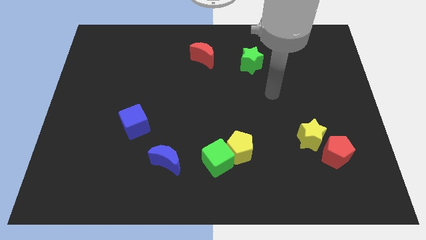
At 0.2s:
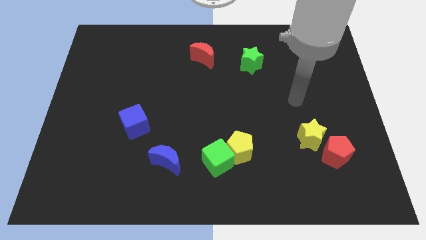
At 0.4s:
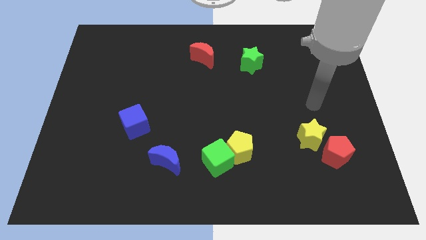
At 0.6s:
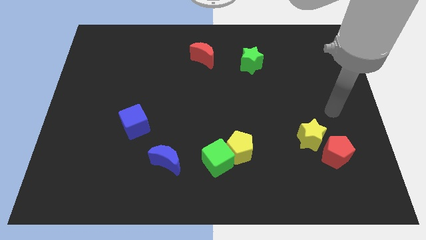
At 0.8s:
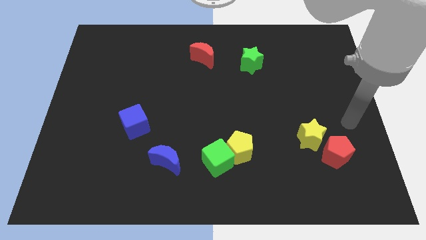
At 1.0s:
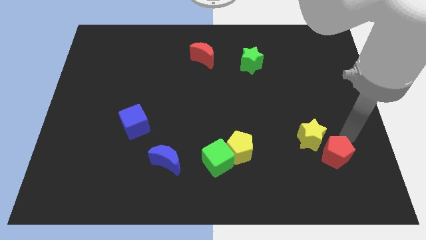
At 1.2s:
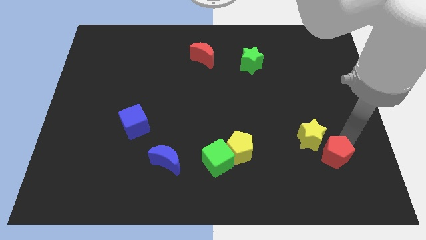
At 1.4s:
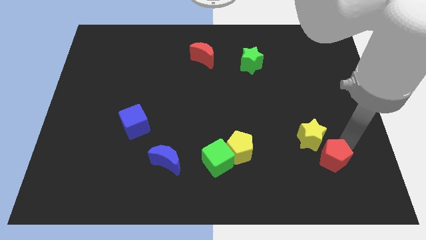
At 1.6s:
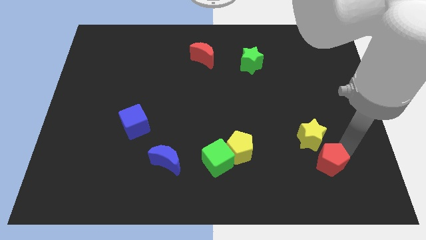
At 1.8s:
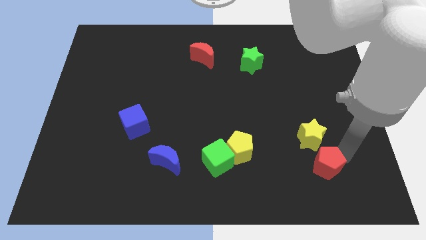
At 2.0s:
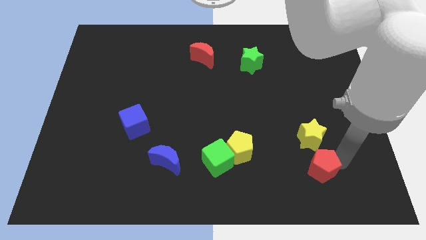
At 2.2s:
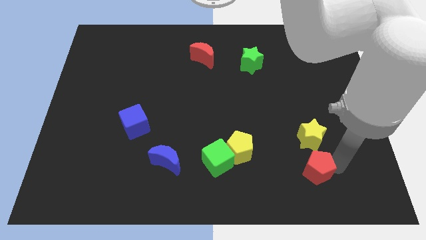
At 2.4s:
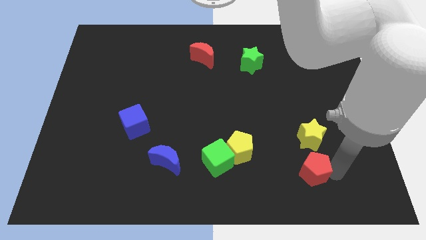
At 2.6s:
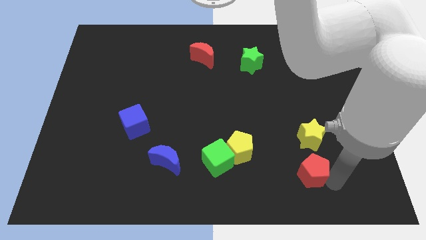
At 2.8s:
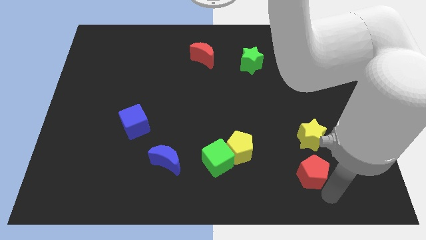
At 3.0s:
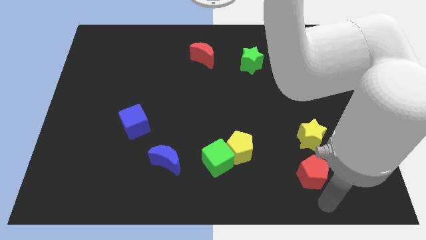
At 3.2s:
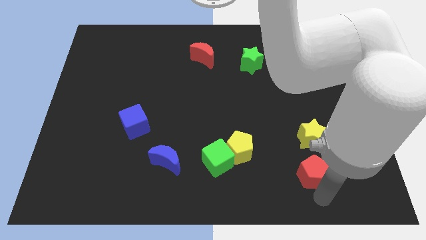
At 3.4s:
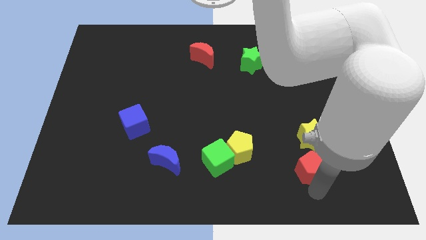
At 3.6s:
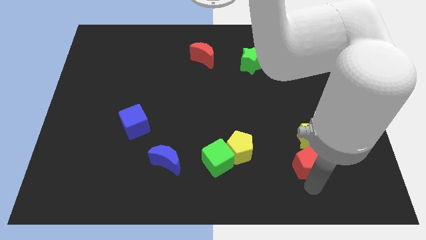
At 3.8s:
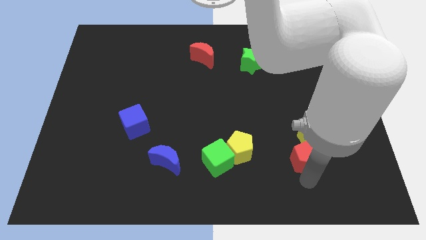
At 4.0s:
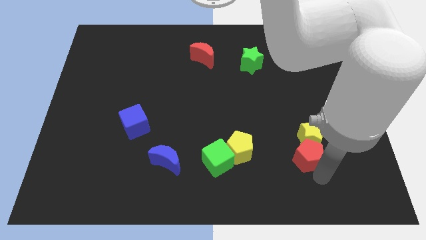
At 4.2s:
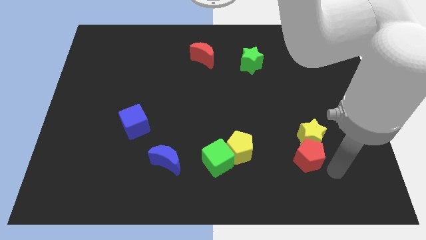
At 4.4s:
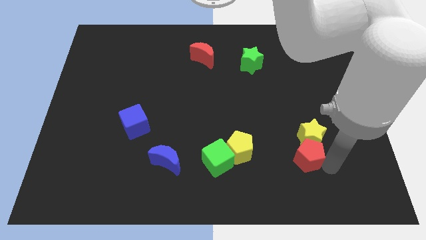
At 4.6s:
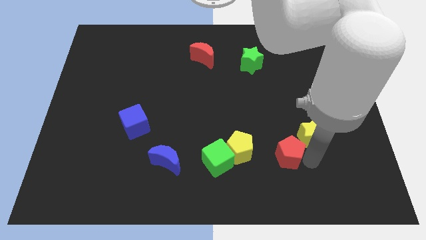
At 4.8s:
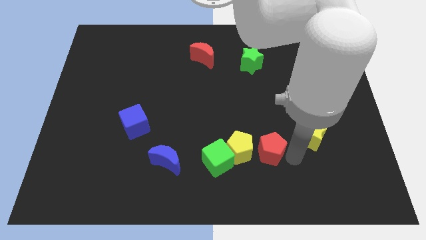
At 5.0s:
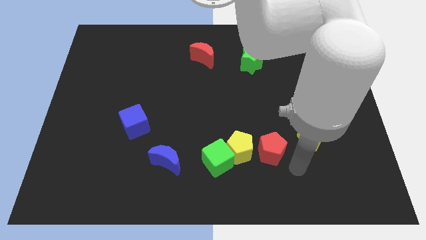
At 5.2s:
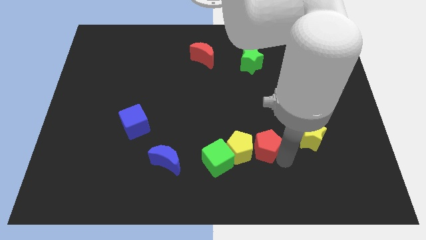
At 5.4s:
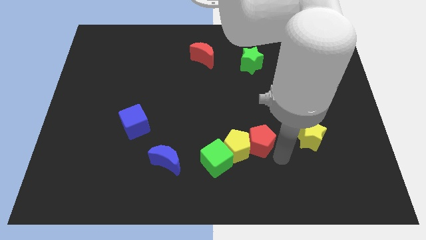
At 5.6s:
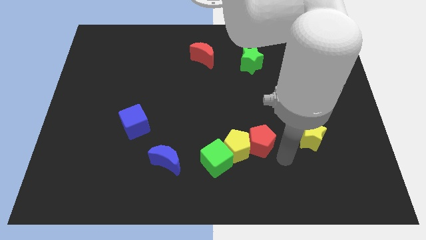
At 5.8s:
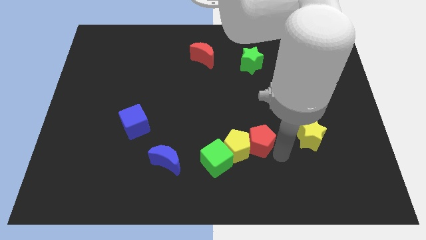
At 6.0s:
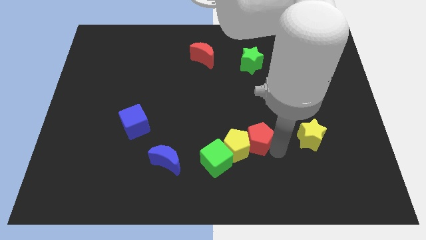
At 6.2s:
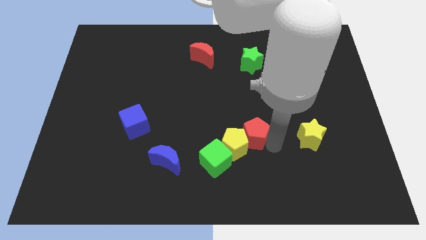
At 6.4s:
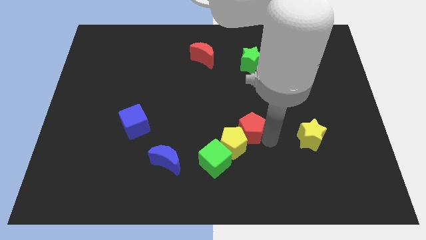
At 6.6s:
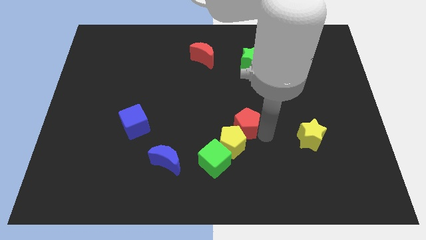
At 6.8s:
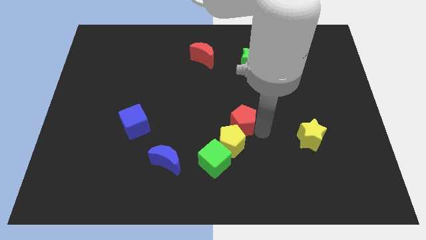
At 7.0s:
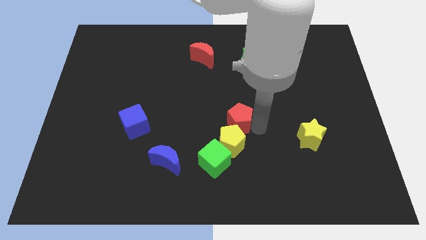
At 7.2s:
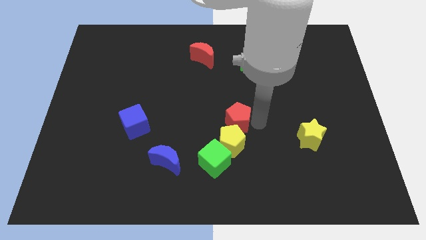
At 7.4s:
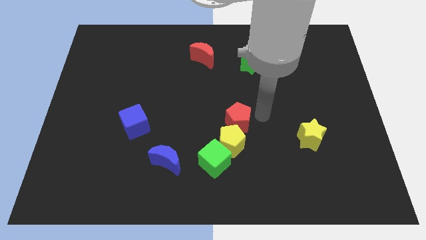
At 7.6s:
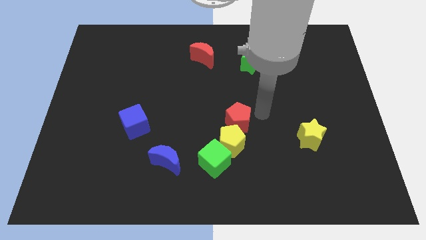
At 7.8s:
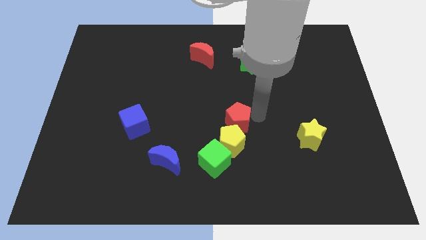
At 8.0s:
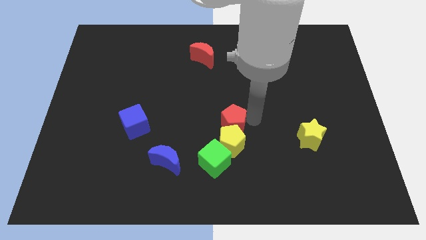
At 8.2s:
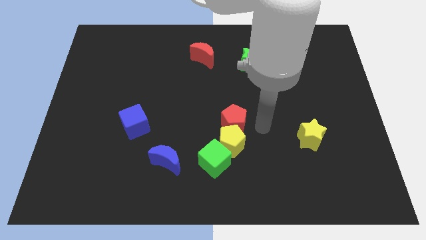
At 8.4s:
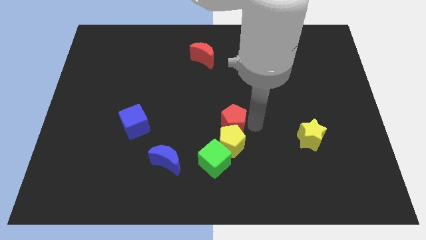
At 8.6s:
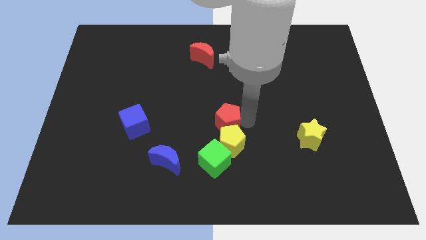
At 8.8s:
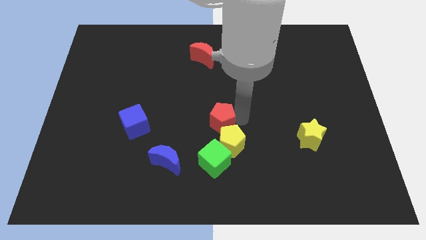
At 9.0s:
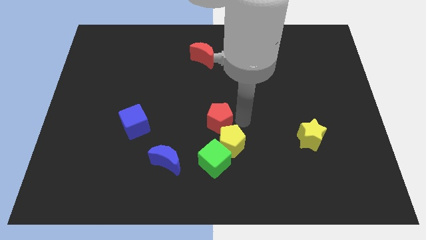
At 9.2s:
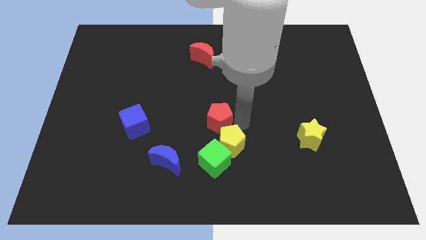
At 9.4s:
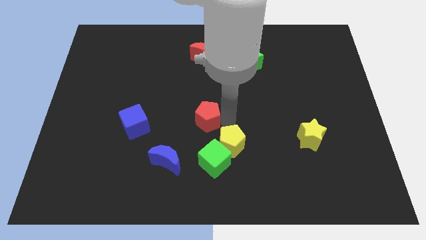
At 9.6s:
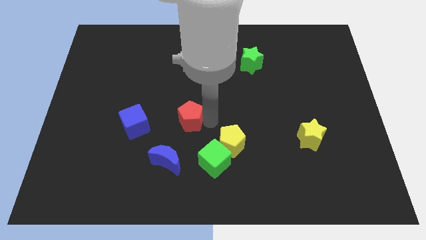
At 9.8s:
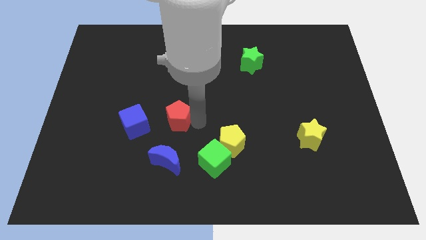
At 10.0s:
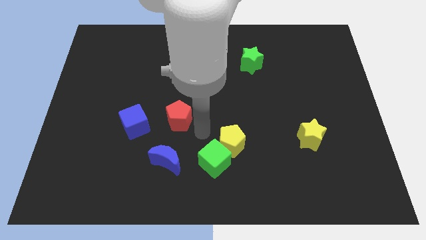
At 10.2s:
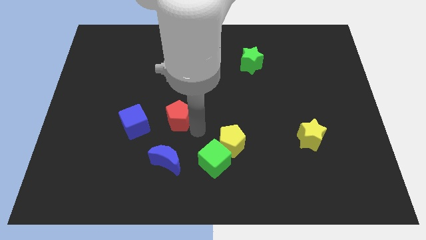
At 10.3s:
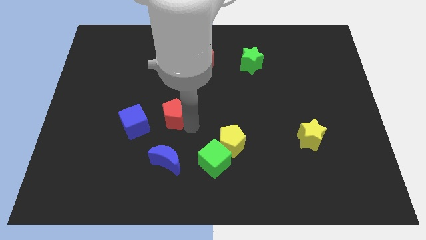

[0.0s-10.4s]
slide the red pentagon to the top right side of the blue cube

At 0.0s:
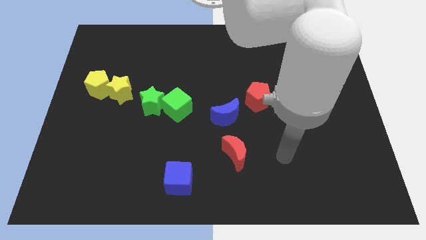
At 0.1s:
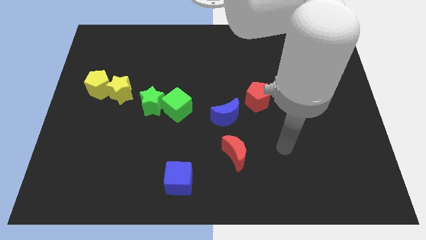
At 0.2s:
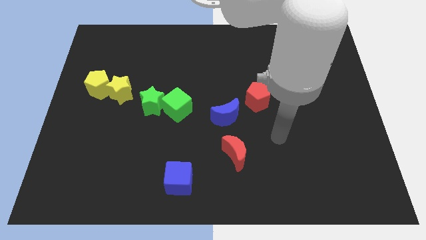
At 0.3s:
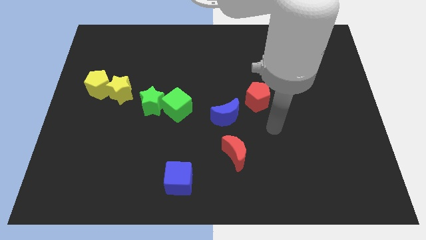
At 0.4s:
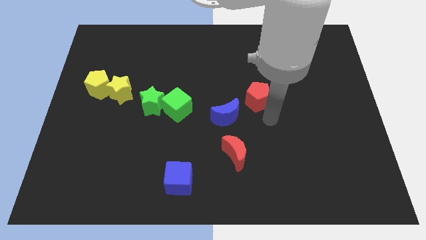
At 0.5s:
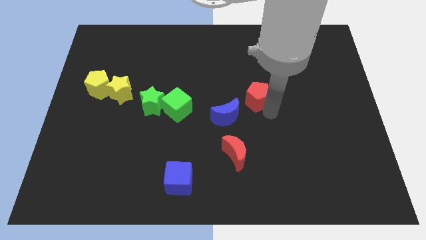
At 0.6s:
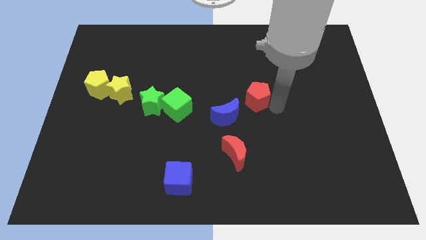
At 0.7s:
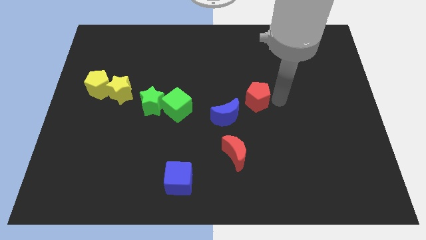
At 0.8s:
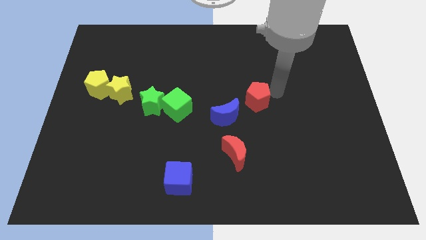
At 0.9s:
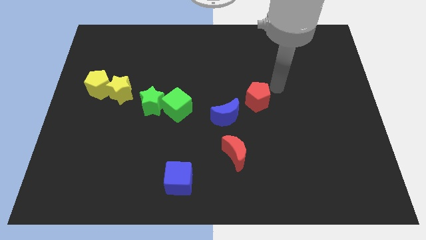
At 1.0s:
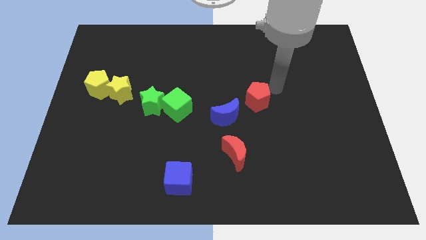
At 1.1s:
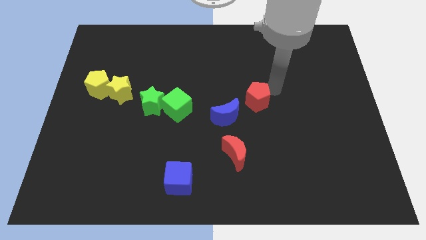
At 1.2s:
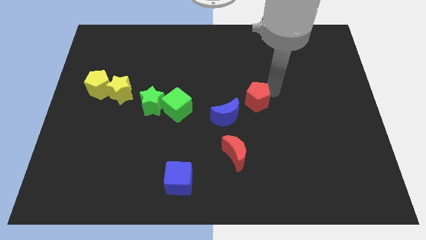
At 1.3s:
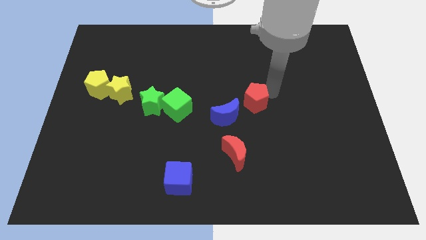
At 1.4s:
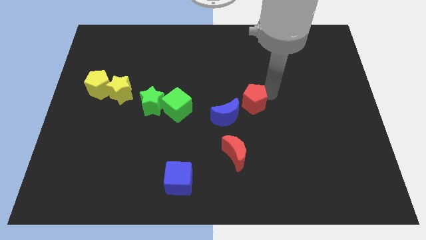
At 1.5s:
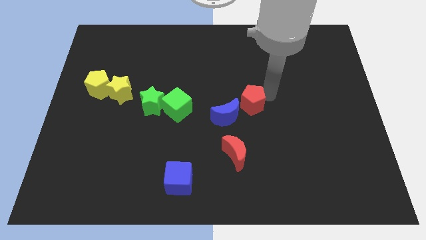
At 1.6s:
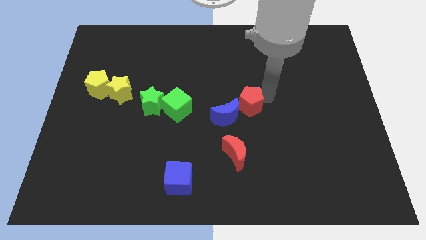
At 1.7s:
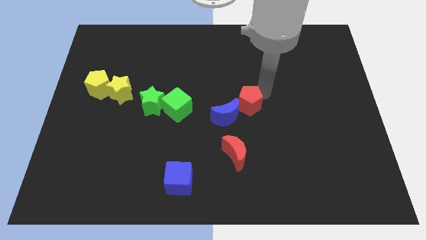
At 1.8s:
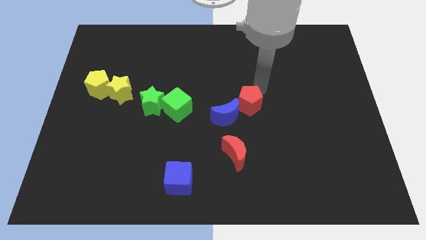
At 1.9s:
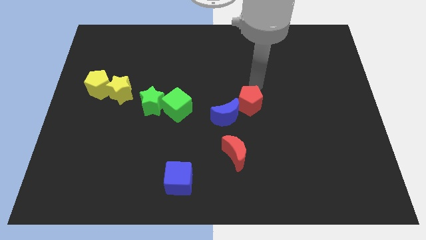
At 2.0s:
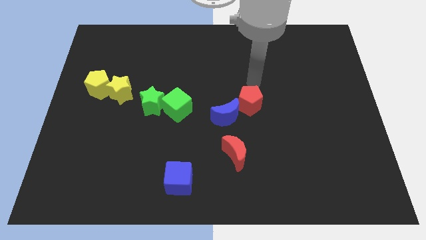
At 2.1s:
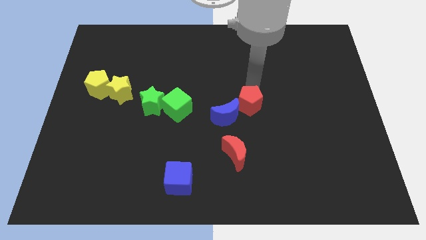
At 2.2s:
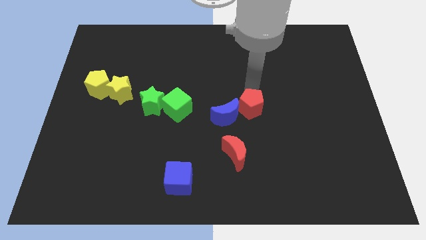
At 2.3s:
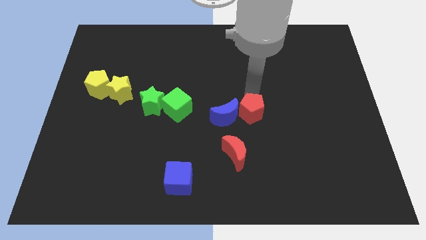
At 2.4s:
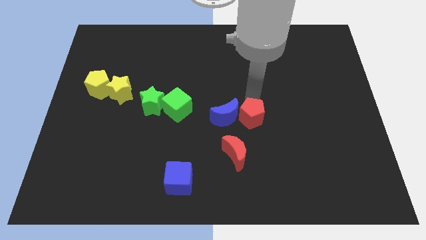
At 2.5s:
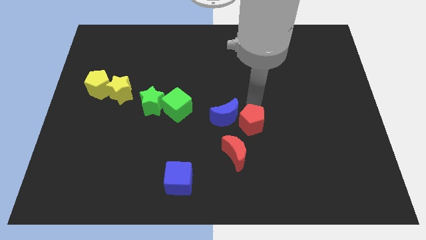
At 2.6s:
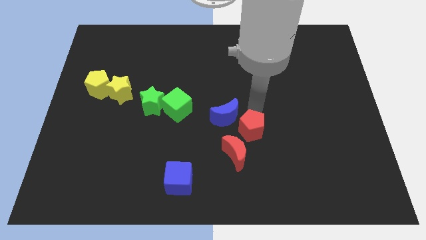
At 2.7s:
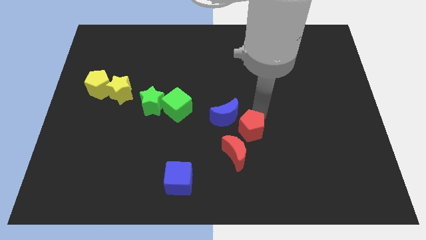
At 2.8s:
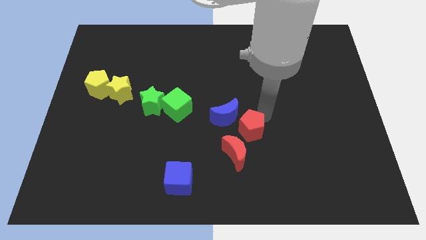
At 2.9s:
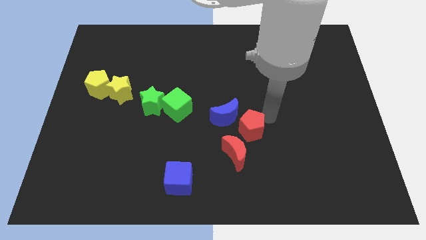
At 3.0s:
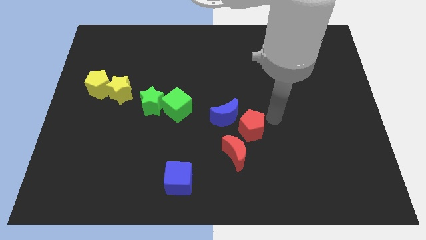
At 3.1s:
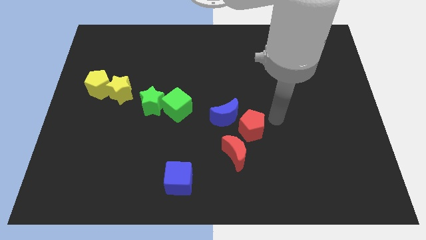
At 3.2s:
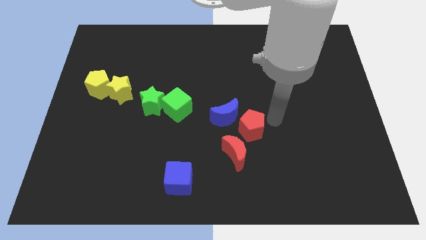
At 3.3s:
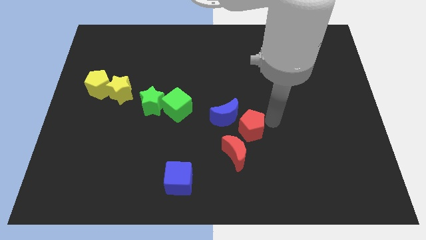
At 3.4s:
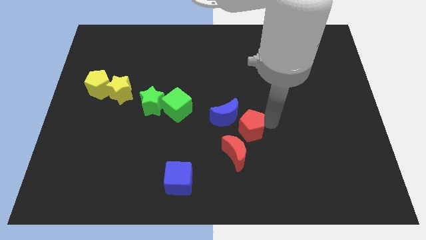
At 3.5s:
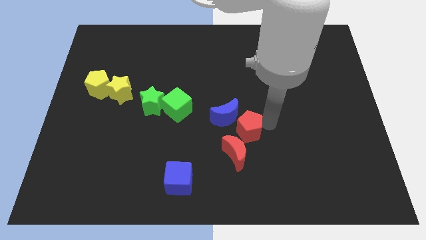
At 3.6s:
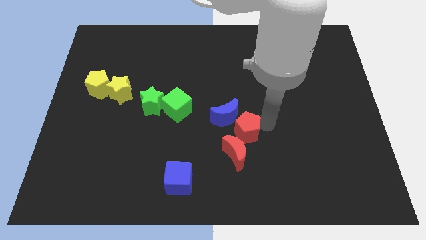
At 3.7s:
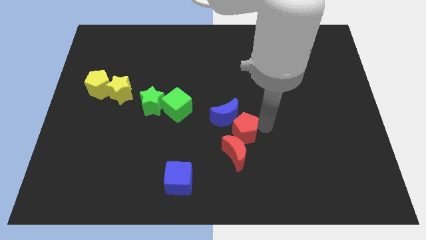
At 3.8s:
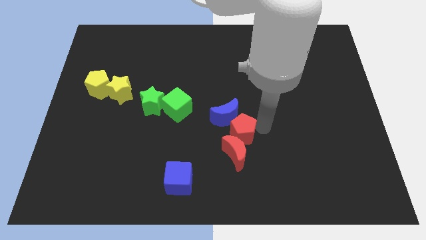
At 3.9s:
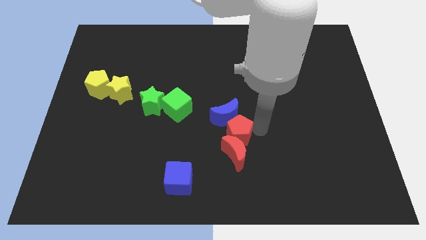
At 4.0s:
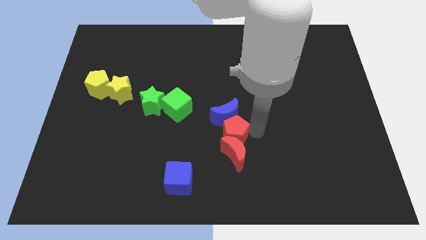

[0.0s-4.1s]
slide the red pentagon to the bottom left of the blue moon
